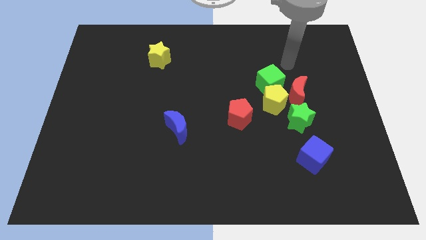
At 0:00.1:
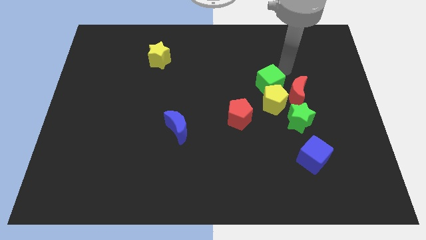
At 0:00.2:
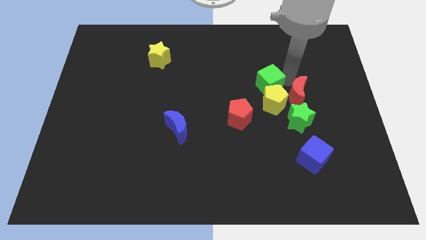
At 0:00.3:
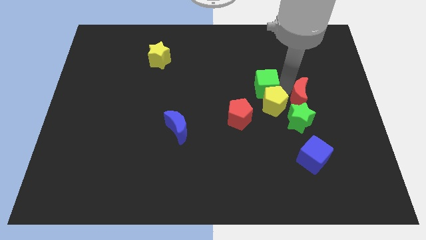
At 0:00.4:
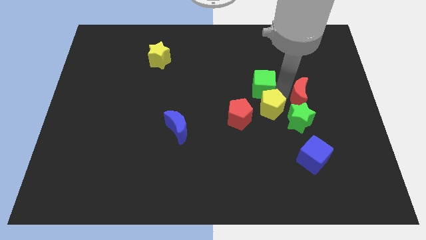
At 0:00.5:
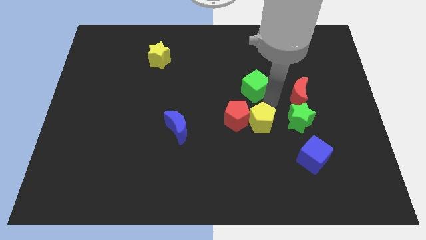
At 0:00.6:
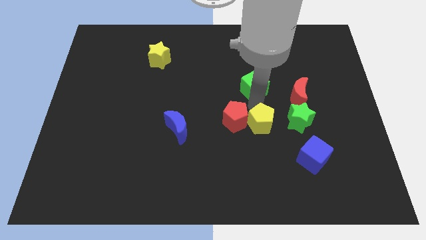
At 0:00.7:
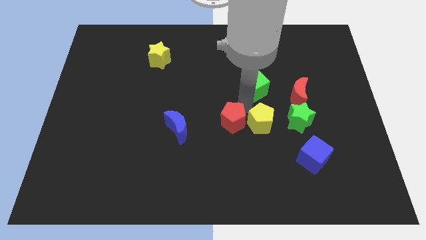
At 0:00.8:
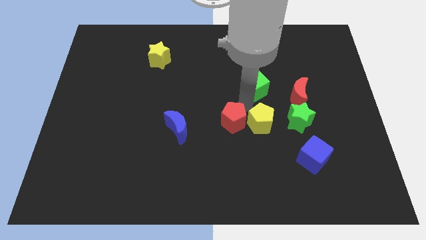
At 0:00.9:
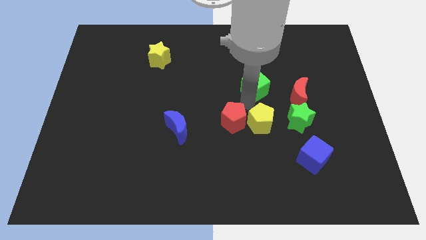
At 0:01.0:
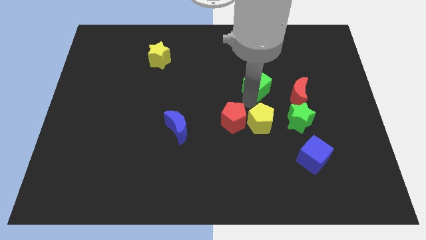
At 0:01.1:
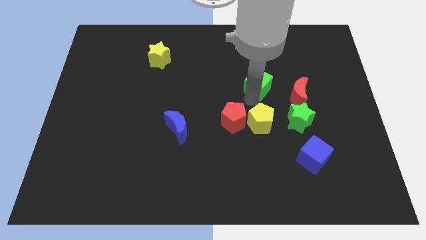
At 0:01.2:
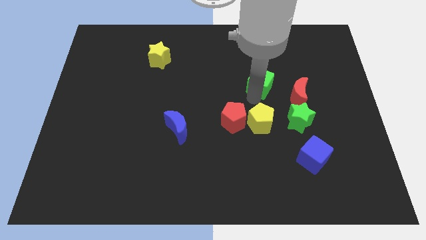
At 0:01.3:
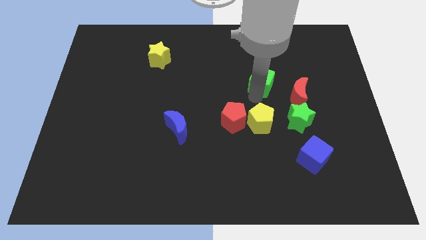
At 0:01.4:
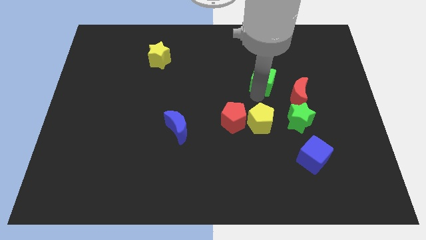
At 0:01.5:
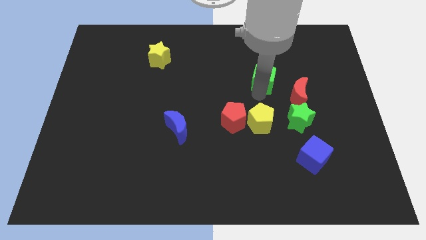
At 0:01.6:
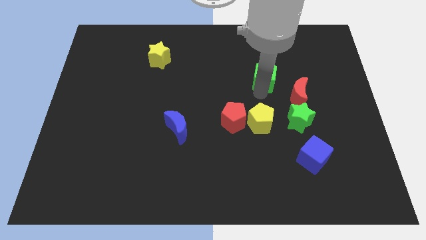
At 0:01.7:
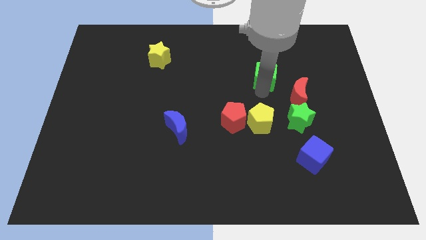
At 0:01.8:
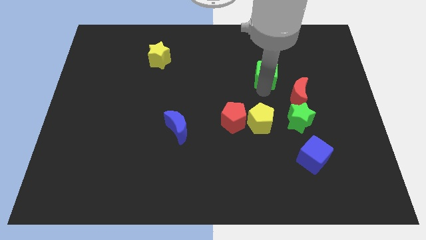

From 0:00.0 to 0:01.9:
pull the green cube apart from the yellow pentagon and red moon

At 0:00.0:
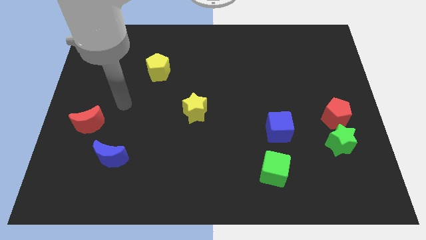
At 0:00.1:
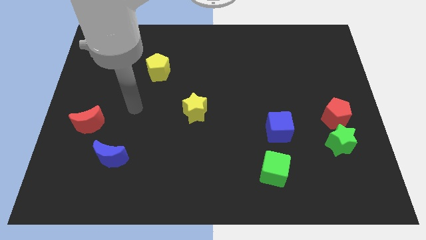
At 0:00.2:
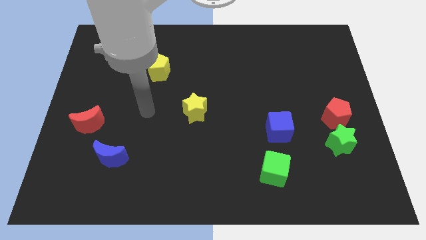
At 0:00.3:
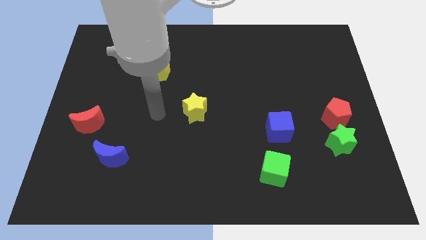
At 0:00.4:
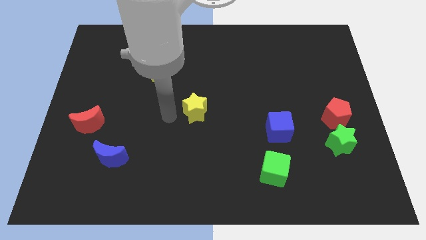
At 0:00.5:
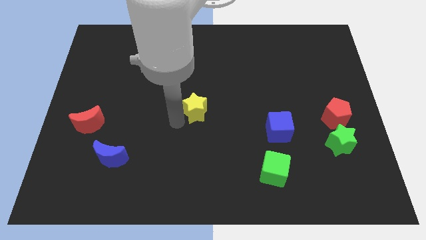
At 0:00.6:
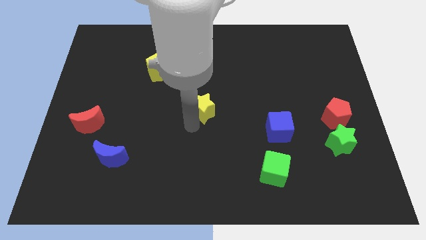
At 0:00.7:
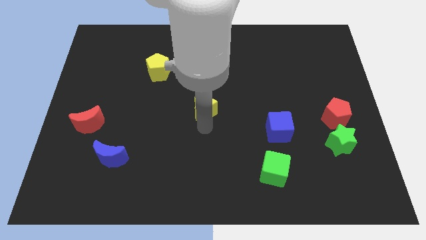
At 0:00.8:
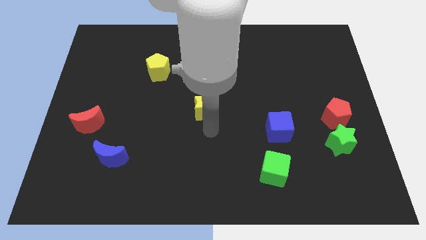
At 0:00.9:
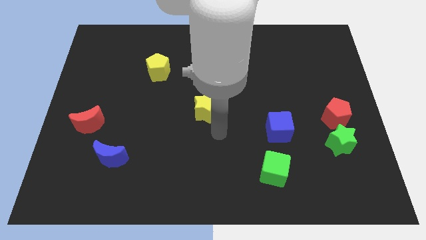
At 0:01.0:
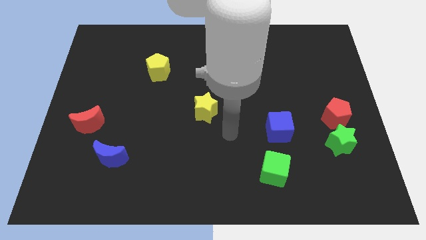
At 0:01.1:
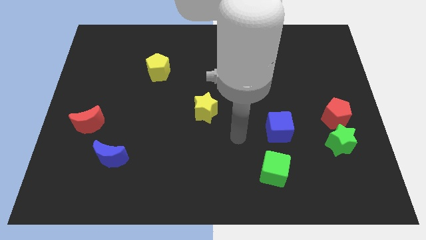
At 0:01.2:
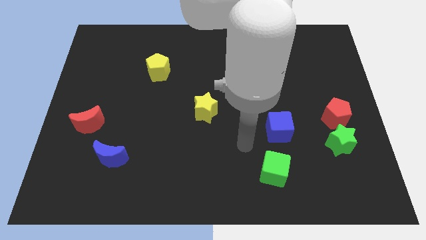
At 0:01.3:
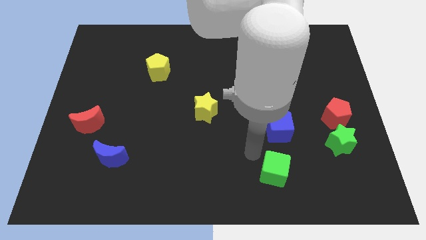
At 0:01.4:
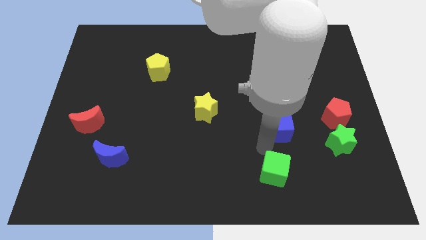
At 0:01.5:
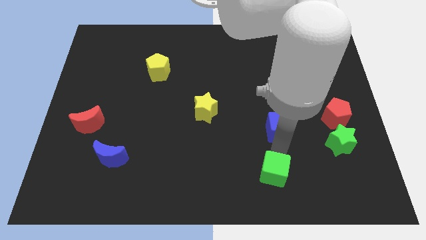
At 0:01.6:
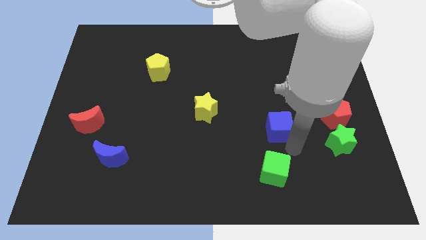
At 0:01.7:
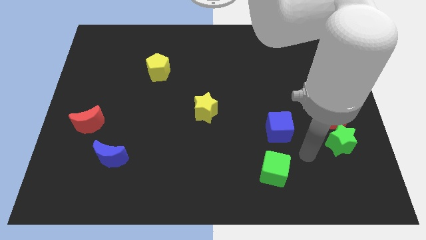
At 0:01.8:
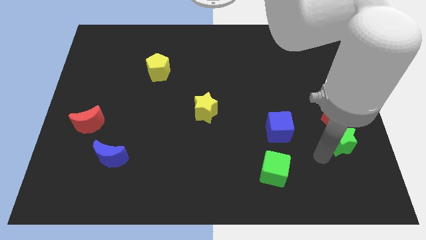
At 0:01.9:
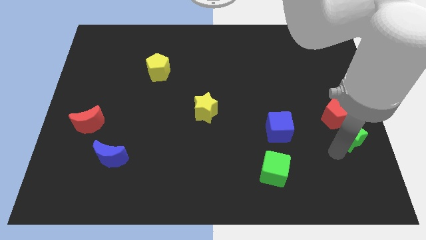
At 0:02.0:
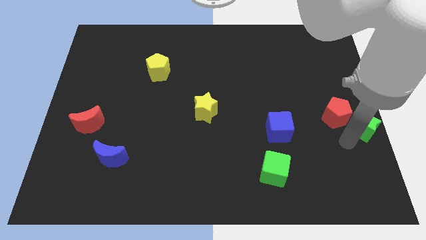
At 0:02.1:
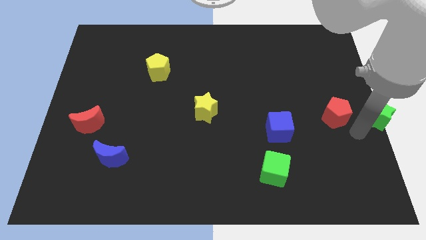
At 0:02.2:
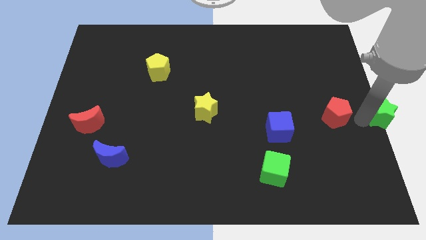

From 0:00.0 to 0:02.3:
separate the red pentagon from the green star

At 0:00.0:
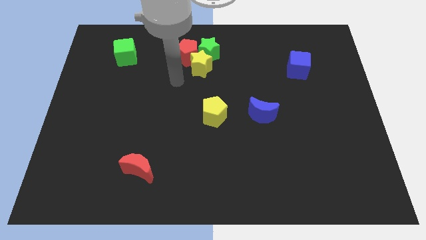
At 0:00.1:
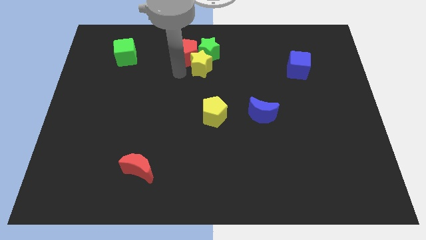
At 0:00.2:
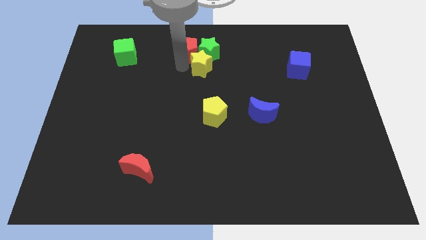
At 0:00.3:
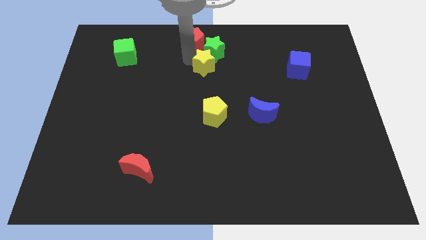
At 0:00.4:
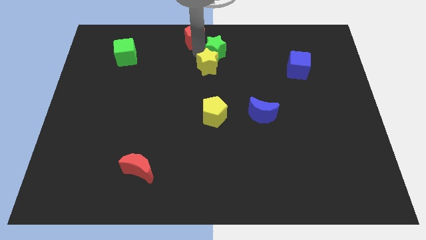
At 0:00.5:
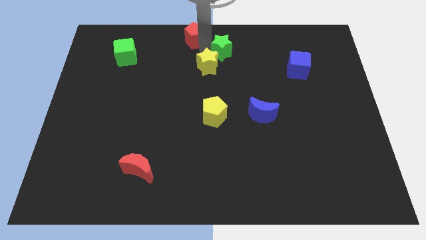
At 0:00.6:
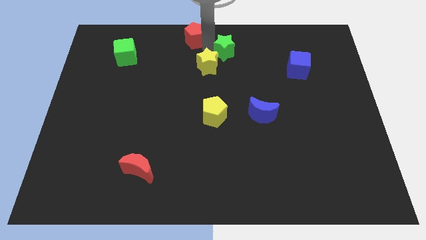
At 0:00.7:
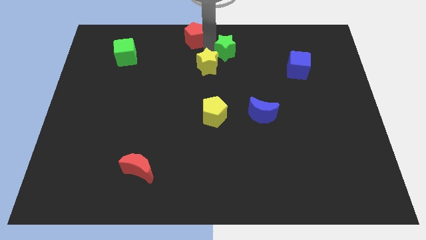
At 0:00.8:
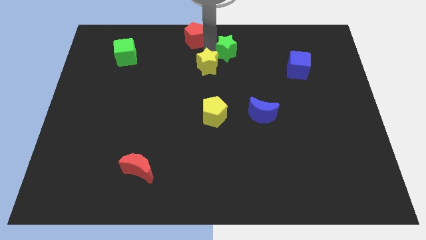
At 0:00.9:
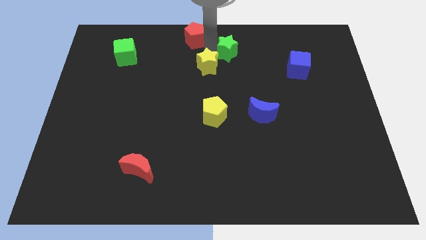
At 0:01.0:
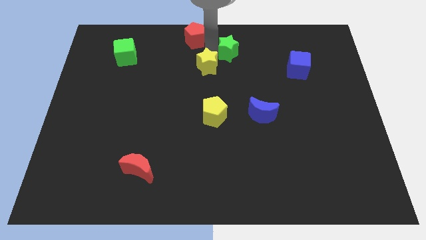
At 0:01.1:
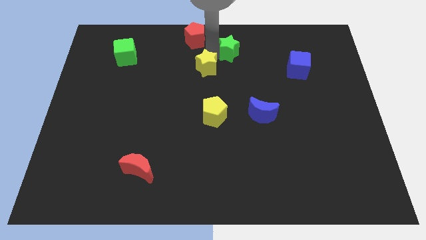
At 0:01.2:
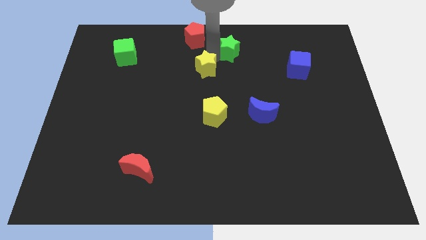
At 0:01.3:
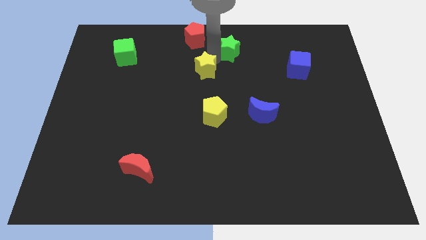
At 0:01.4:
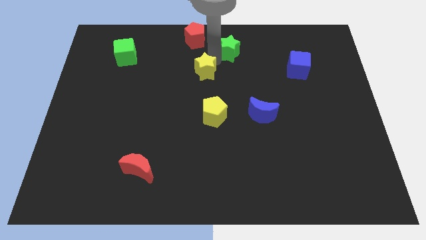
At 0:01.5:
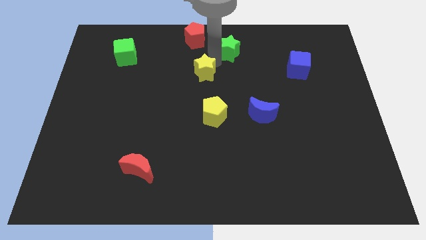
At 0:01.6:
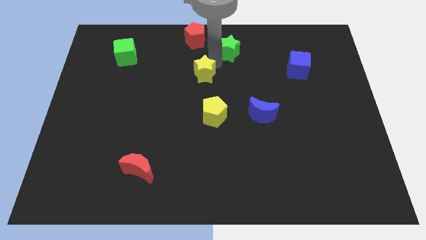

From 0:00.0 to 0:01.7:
move the yellow star away from the green star and red pentagon

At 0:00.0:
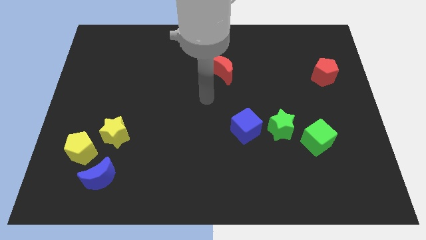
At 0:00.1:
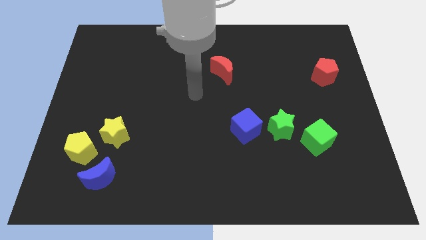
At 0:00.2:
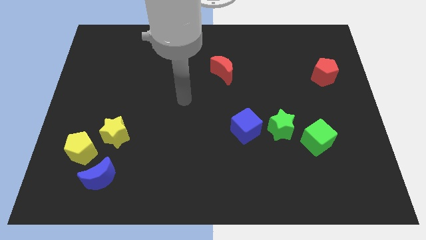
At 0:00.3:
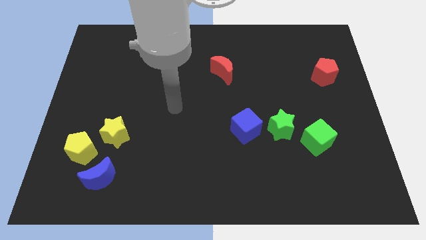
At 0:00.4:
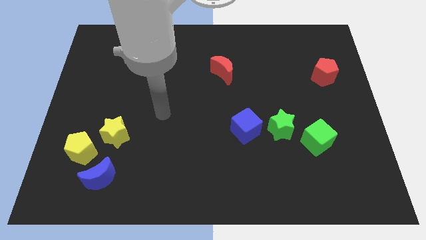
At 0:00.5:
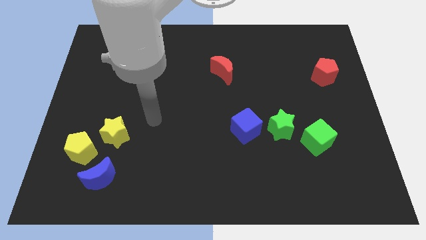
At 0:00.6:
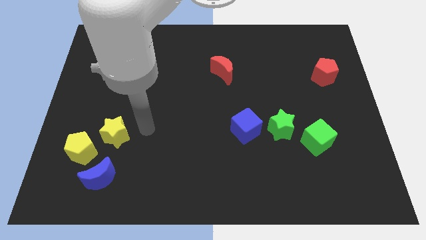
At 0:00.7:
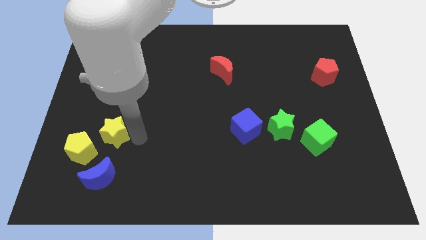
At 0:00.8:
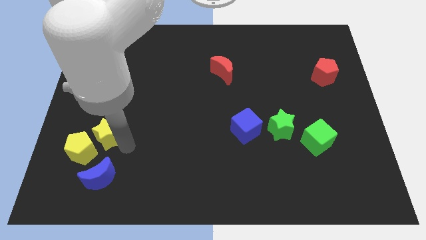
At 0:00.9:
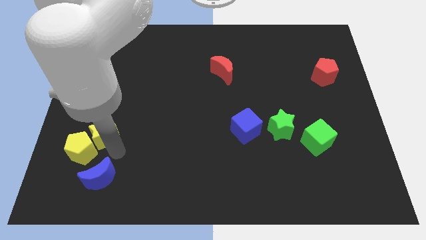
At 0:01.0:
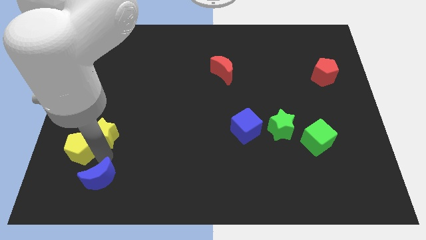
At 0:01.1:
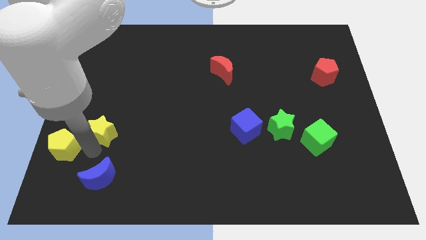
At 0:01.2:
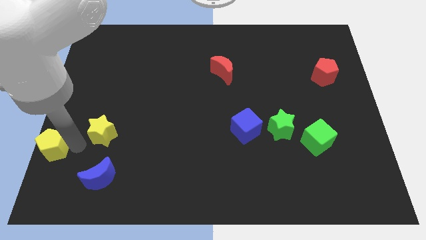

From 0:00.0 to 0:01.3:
move the yellow star away from the yellow pentagon

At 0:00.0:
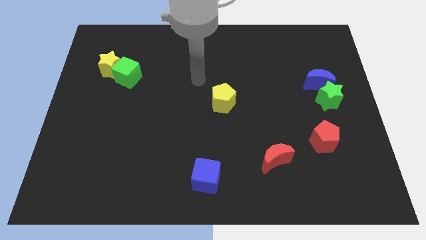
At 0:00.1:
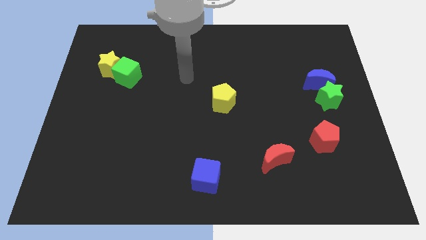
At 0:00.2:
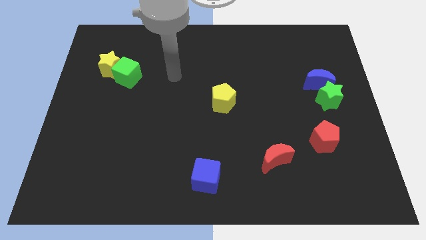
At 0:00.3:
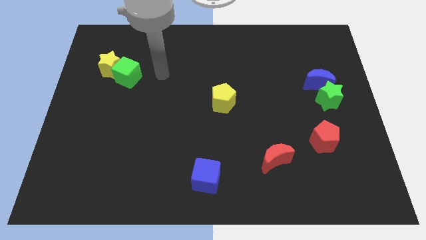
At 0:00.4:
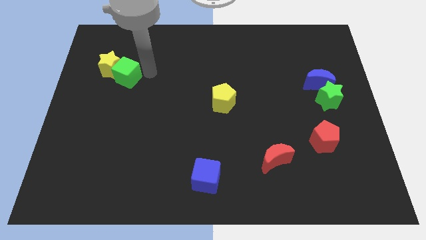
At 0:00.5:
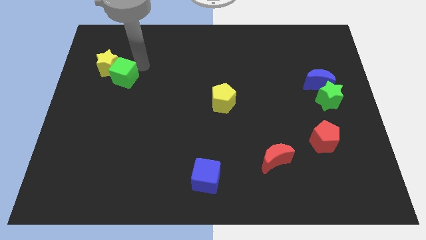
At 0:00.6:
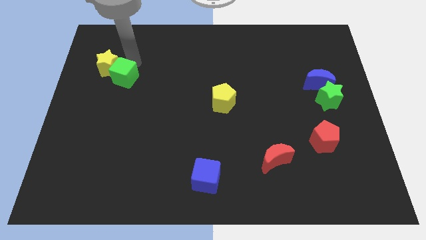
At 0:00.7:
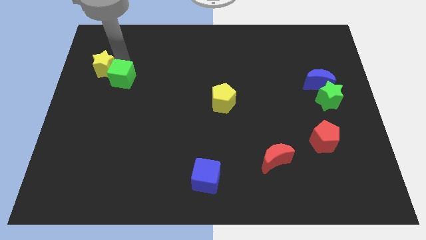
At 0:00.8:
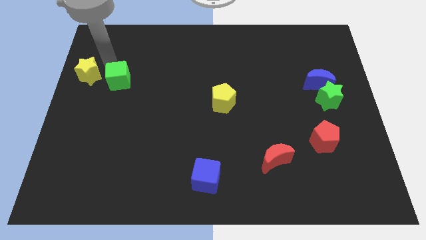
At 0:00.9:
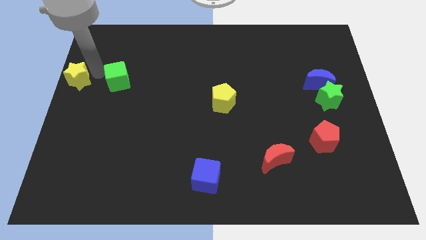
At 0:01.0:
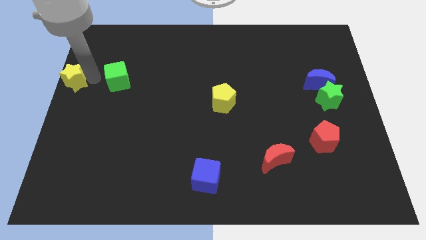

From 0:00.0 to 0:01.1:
separate the green cube from the yellow star

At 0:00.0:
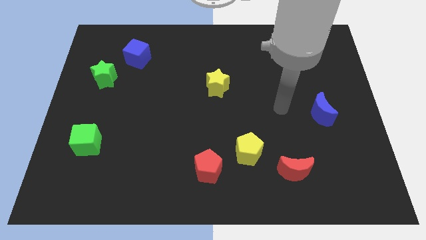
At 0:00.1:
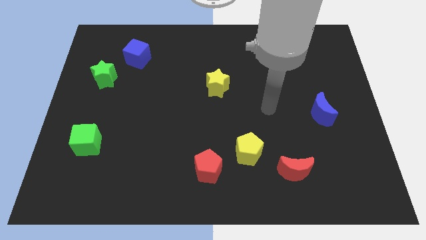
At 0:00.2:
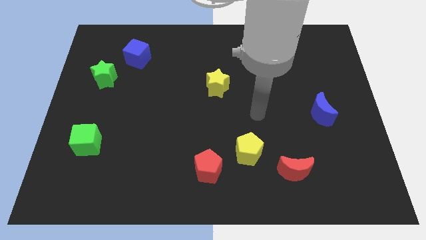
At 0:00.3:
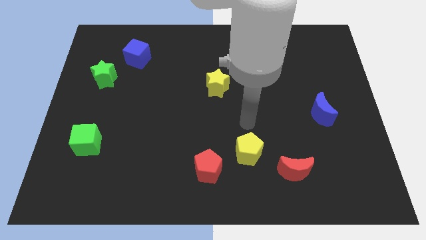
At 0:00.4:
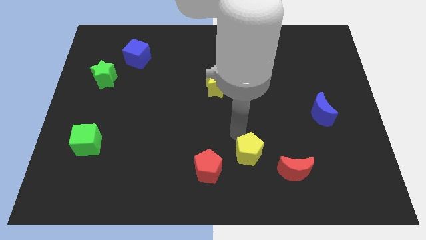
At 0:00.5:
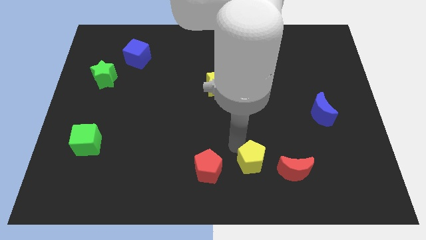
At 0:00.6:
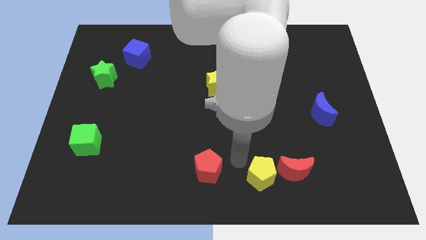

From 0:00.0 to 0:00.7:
separate the red pentagon from the yellow pentagon

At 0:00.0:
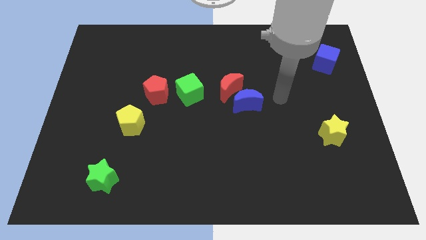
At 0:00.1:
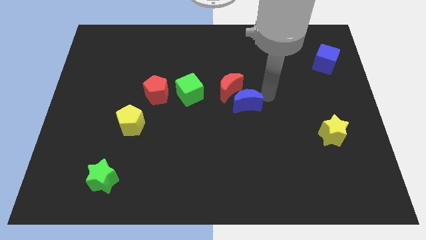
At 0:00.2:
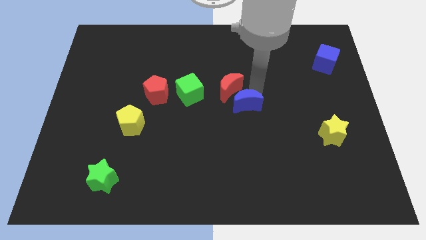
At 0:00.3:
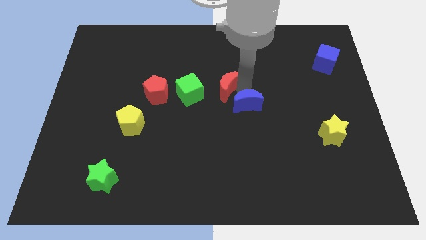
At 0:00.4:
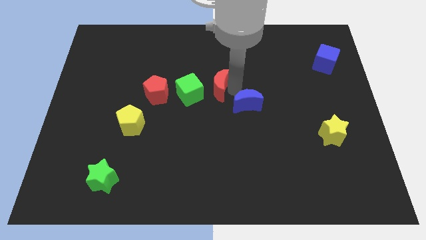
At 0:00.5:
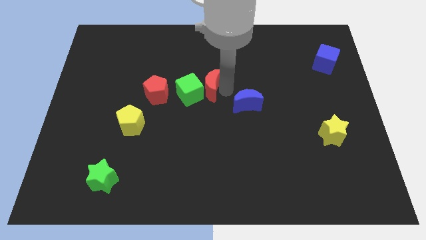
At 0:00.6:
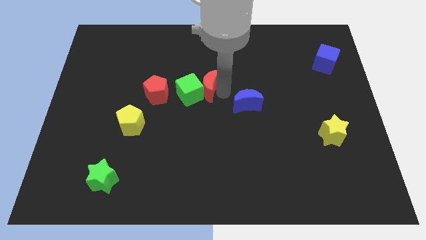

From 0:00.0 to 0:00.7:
move the blue moon away from the red moon
